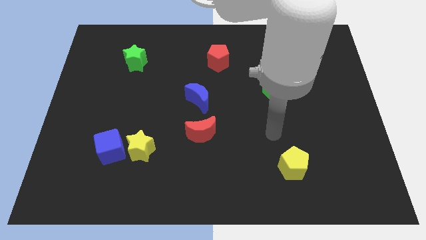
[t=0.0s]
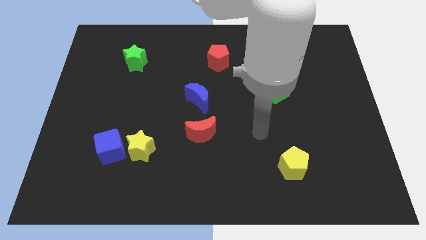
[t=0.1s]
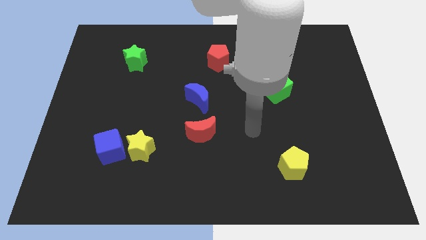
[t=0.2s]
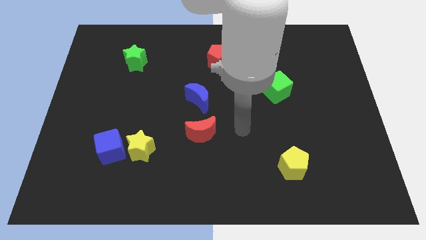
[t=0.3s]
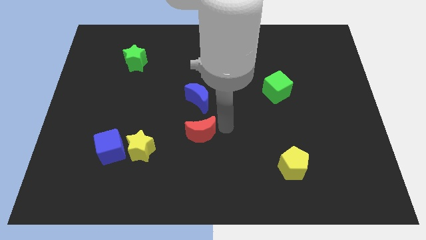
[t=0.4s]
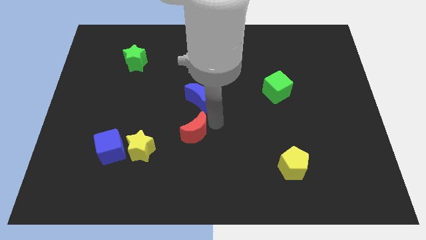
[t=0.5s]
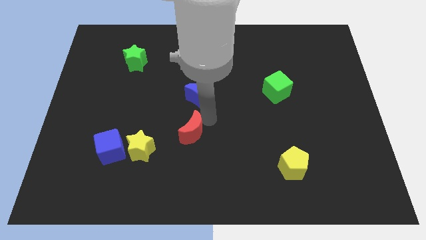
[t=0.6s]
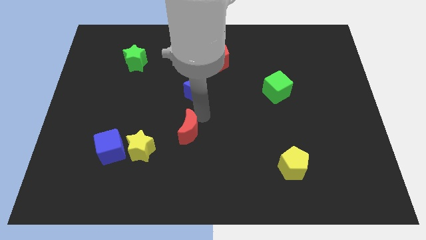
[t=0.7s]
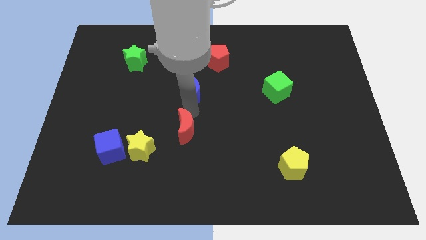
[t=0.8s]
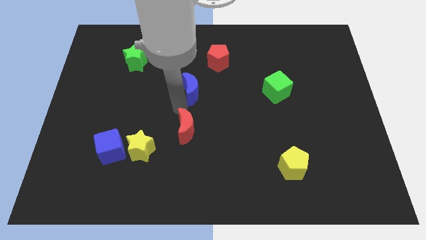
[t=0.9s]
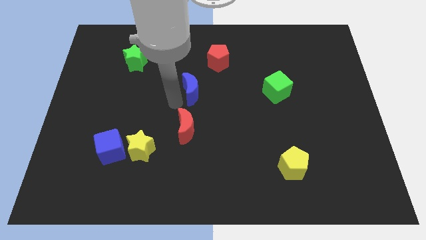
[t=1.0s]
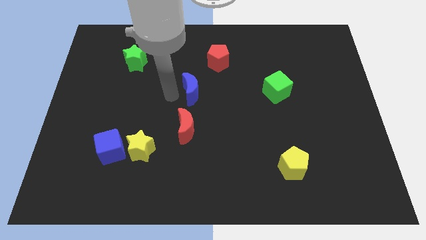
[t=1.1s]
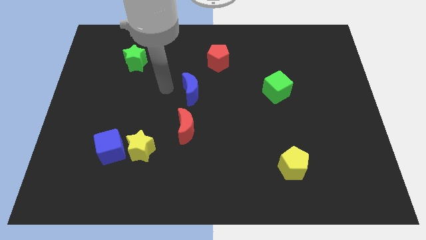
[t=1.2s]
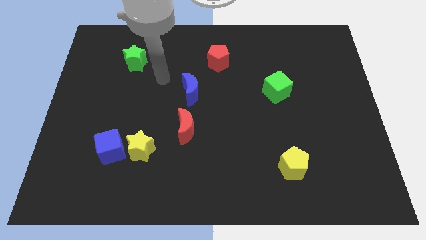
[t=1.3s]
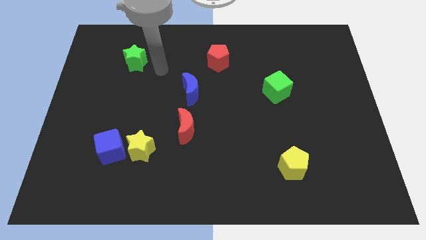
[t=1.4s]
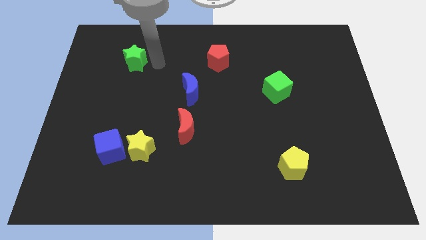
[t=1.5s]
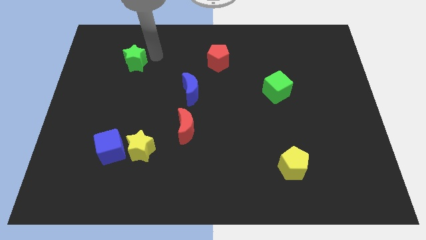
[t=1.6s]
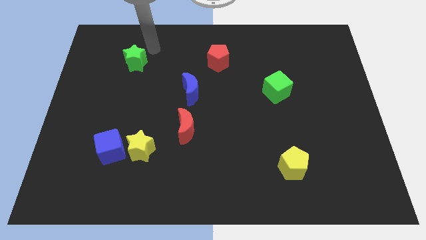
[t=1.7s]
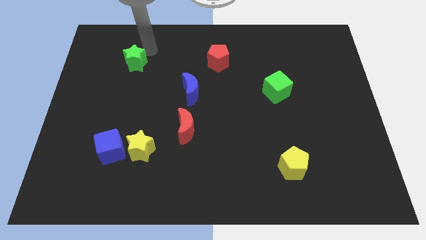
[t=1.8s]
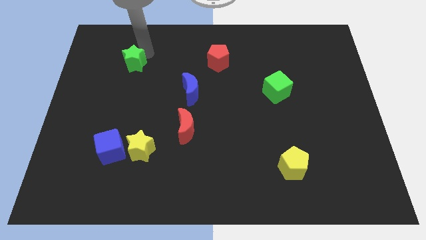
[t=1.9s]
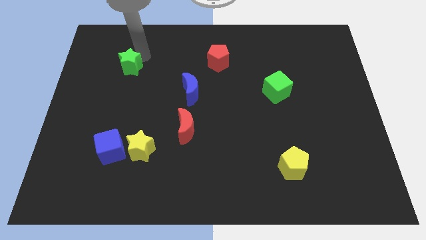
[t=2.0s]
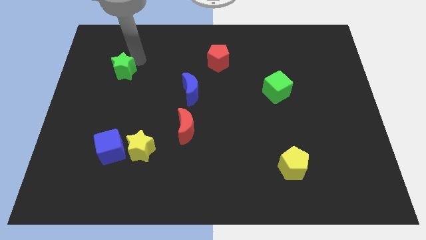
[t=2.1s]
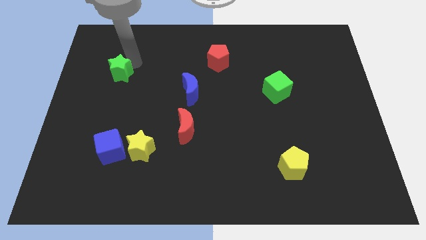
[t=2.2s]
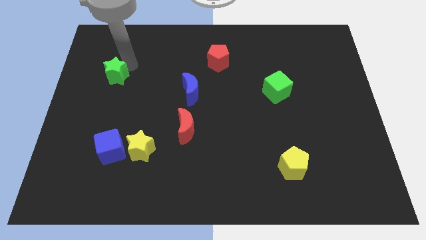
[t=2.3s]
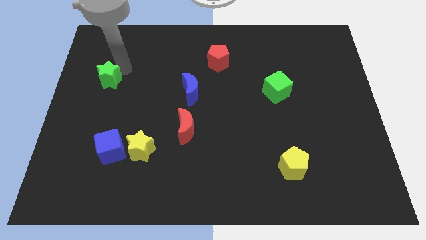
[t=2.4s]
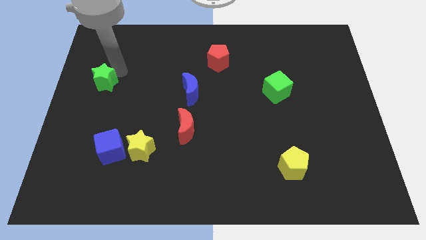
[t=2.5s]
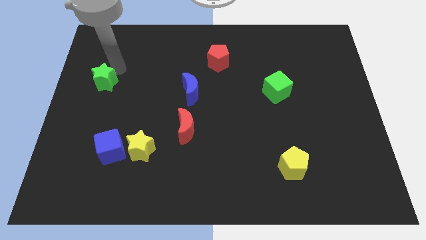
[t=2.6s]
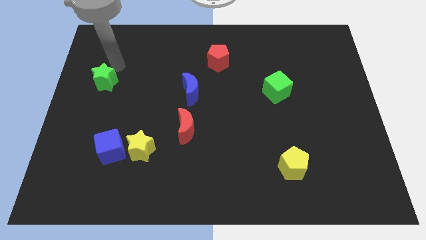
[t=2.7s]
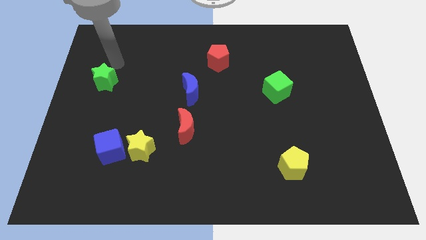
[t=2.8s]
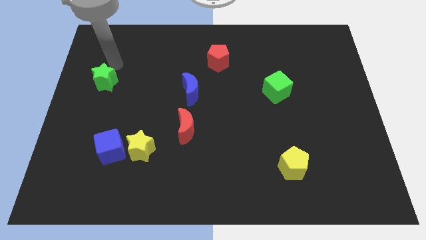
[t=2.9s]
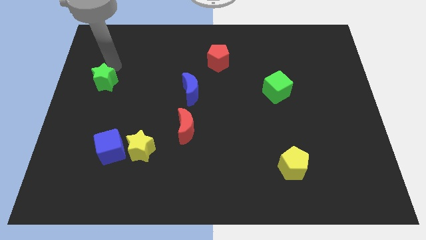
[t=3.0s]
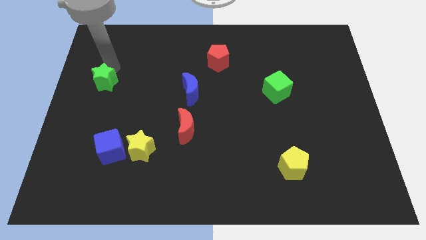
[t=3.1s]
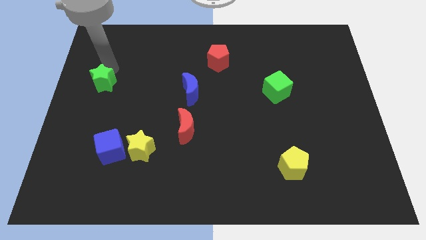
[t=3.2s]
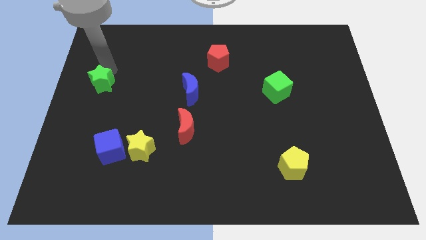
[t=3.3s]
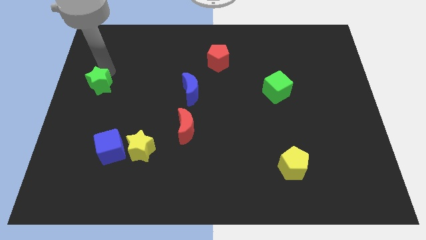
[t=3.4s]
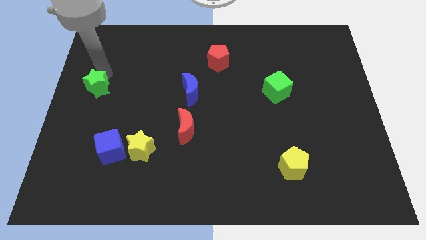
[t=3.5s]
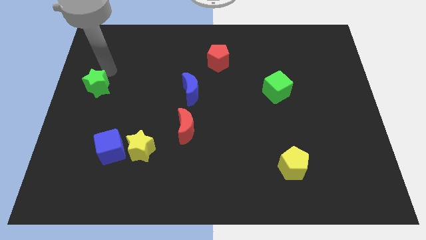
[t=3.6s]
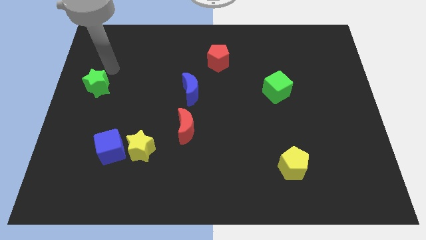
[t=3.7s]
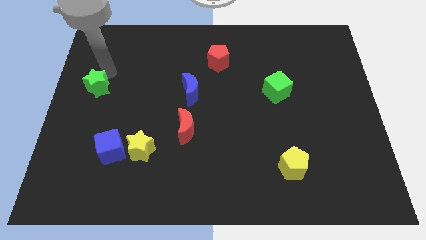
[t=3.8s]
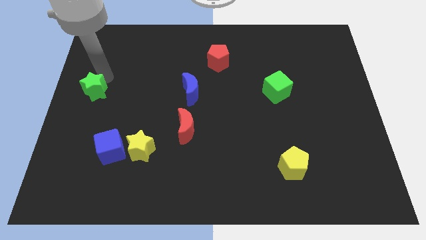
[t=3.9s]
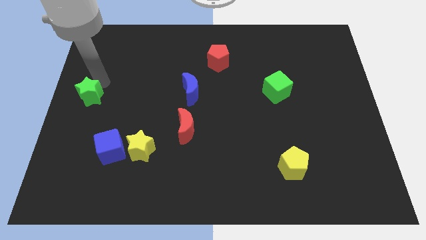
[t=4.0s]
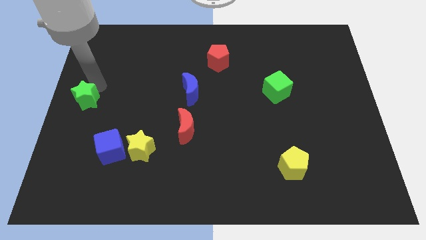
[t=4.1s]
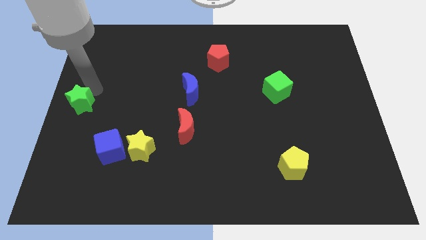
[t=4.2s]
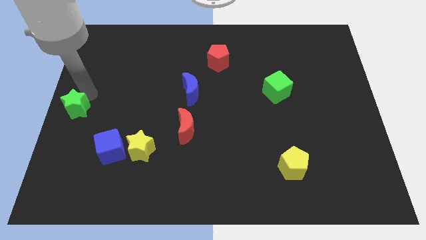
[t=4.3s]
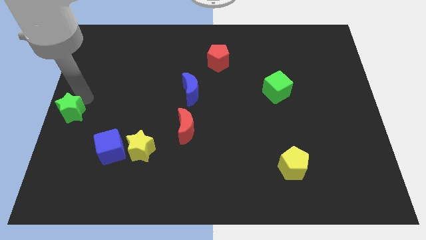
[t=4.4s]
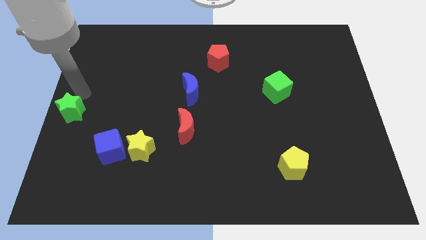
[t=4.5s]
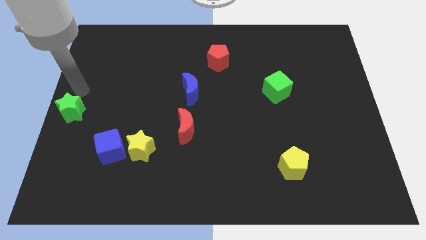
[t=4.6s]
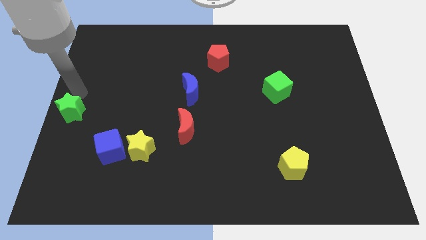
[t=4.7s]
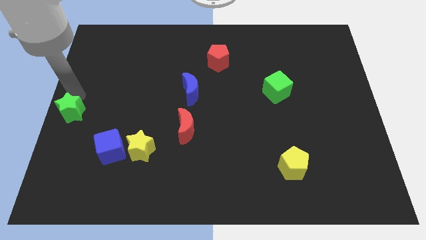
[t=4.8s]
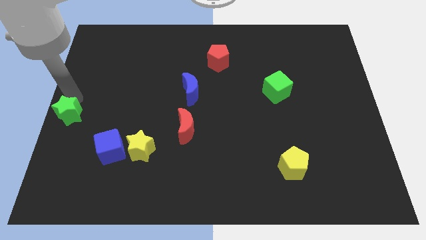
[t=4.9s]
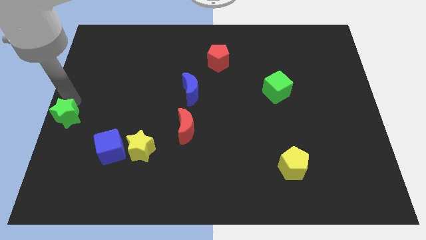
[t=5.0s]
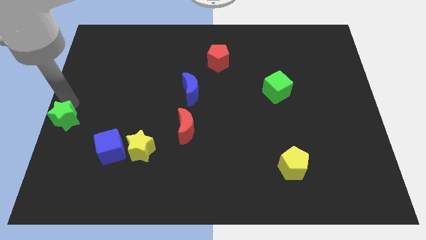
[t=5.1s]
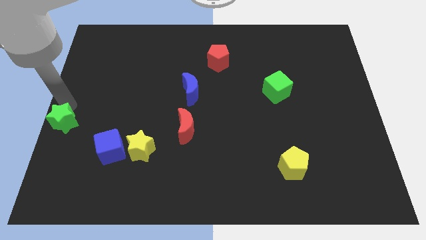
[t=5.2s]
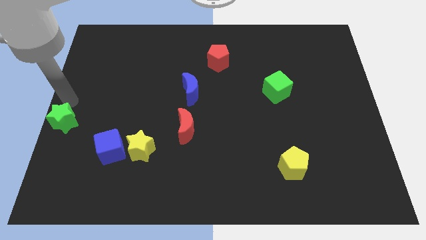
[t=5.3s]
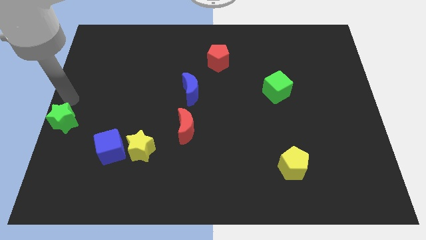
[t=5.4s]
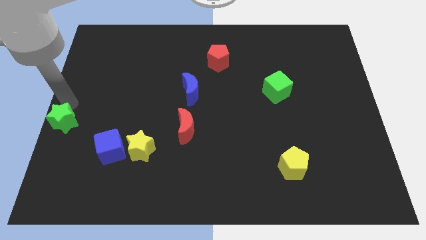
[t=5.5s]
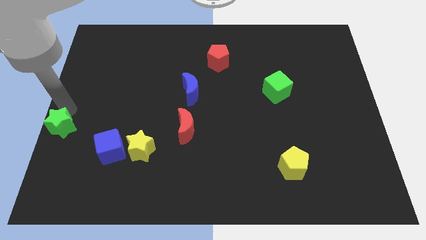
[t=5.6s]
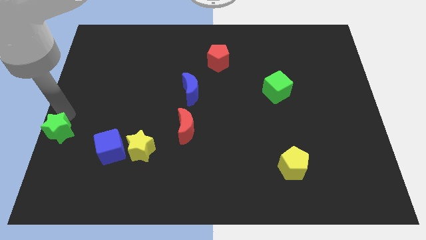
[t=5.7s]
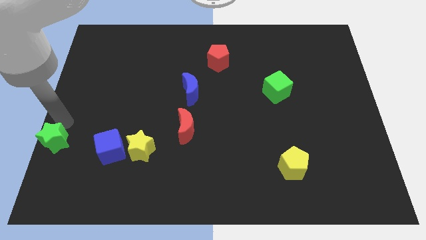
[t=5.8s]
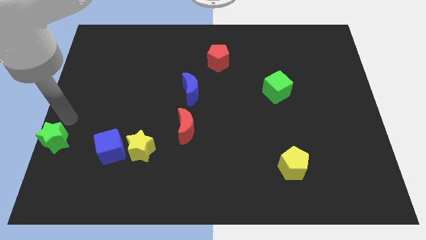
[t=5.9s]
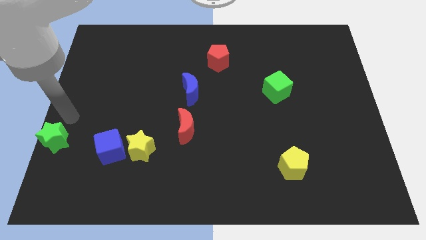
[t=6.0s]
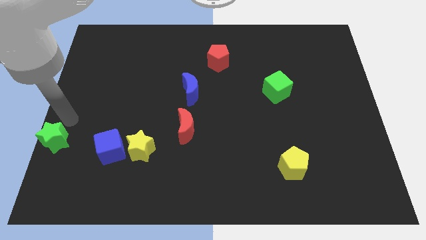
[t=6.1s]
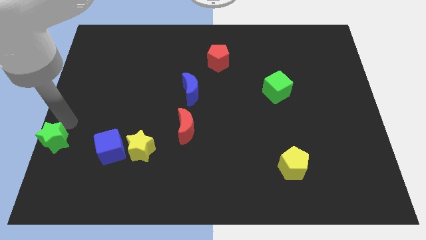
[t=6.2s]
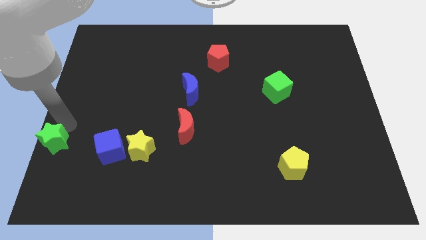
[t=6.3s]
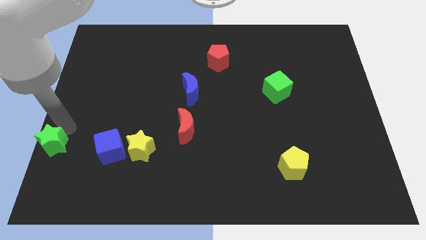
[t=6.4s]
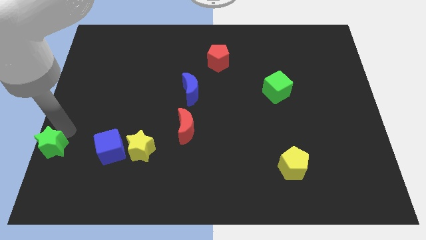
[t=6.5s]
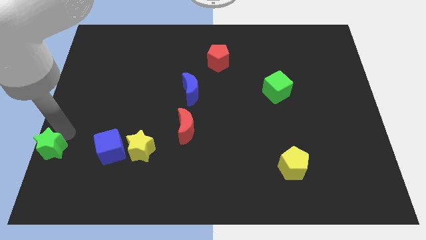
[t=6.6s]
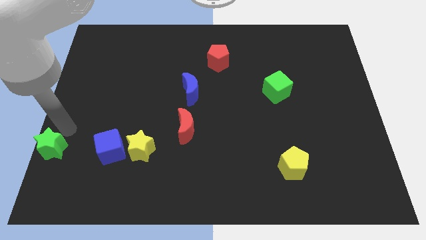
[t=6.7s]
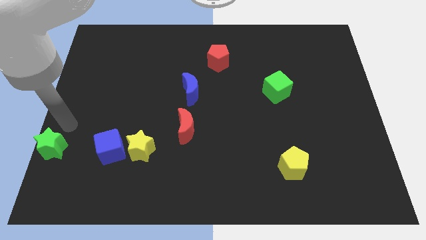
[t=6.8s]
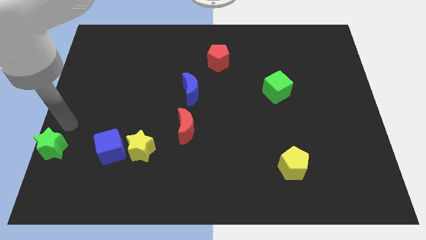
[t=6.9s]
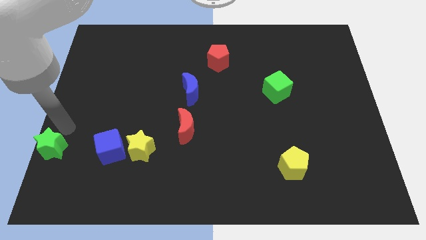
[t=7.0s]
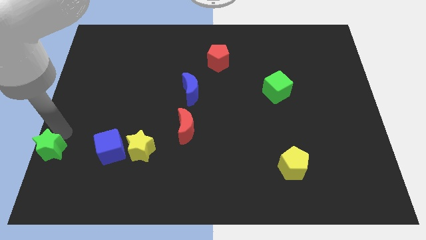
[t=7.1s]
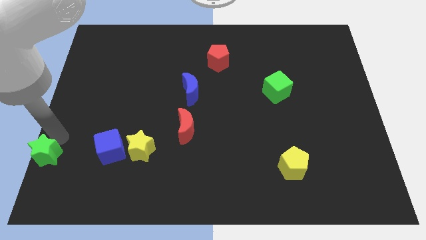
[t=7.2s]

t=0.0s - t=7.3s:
move the green star to the bottom left

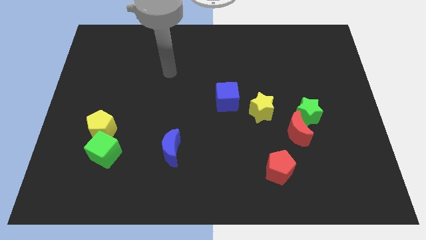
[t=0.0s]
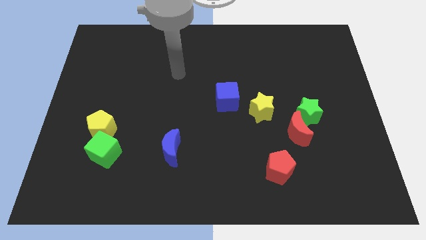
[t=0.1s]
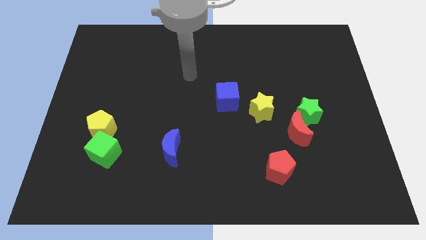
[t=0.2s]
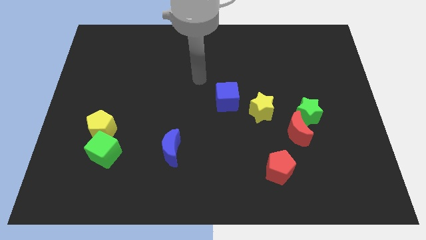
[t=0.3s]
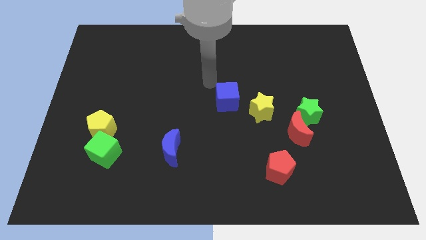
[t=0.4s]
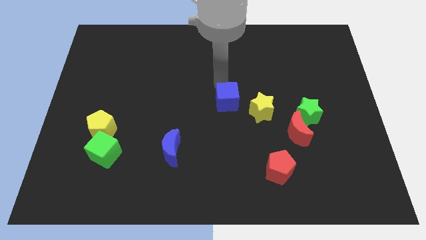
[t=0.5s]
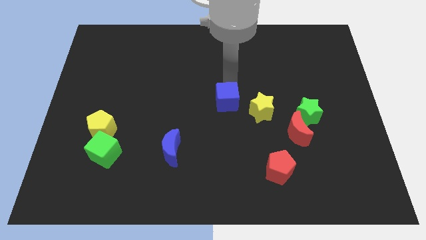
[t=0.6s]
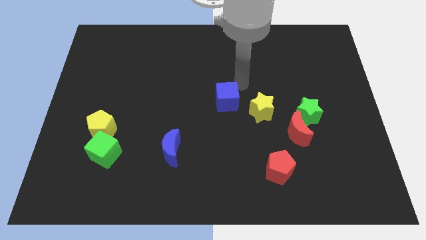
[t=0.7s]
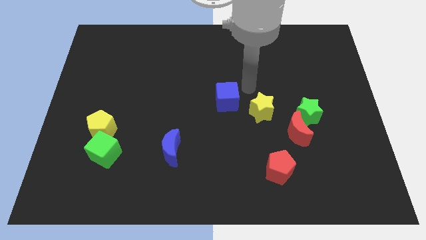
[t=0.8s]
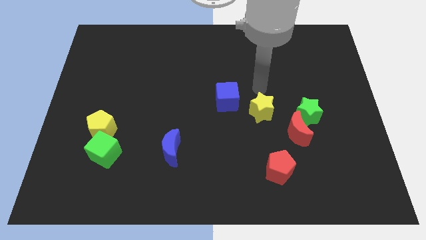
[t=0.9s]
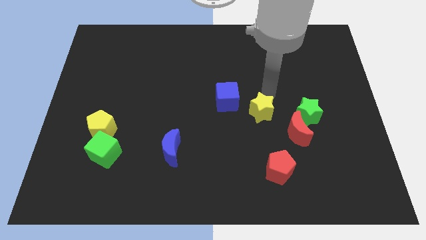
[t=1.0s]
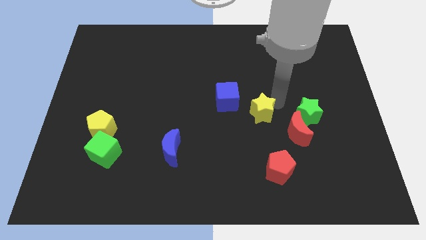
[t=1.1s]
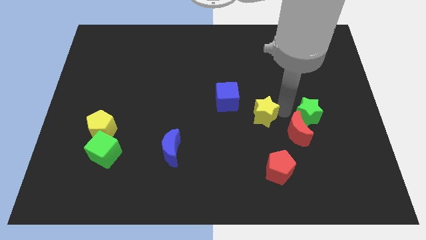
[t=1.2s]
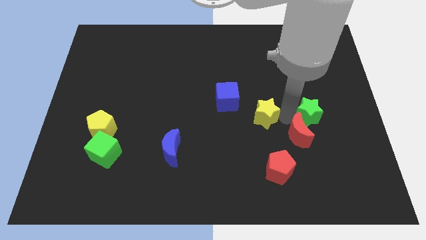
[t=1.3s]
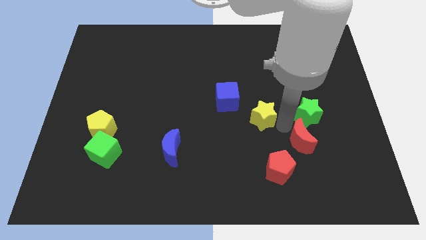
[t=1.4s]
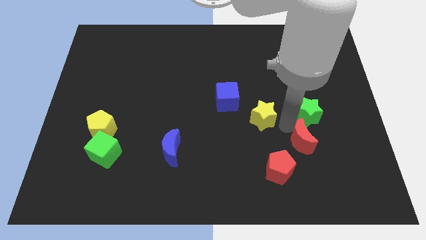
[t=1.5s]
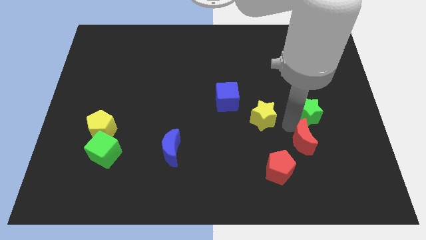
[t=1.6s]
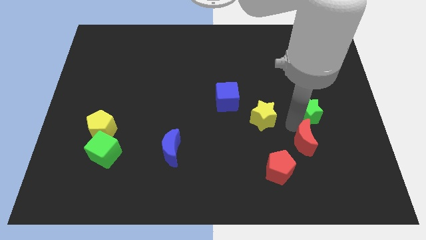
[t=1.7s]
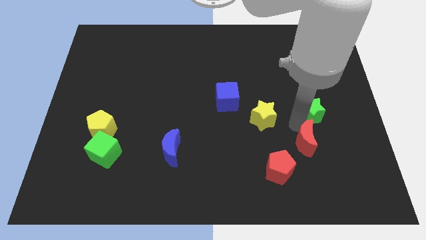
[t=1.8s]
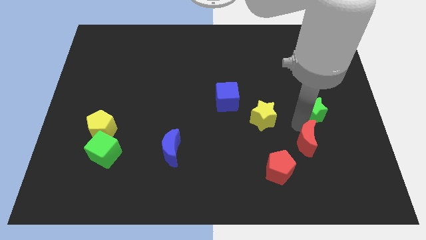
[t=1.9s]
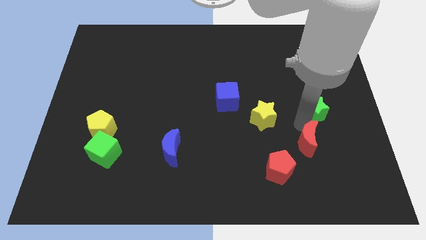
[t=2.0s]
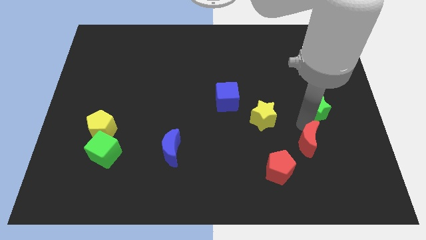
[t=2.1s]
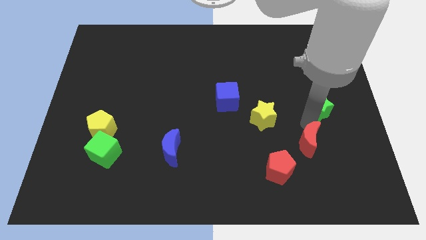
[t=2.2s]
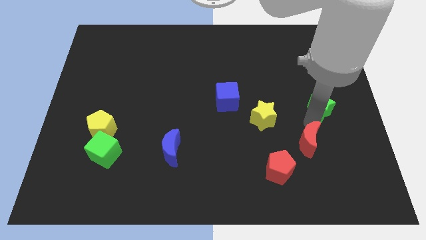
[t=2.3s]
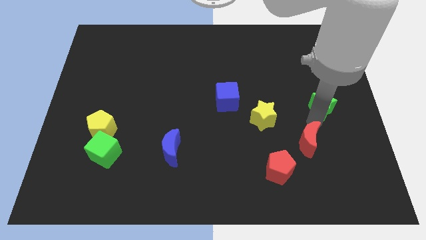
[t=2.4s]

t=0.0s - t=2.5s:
slide the green star to the center right
